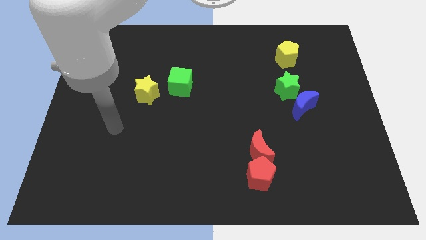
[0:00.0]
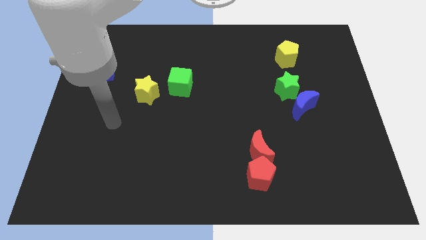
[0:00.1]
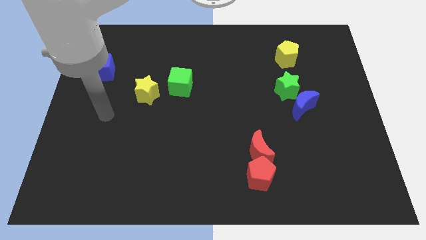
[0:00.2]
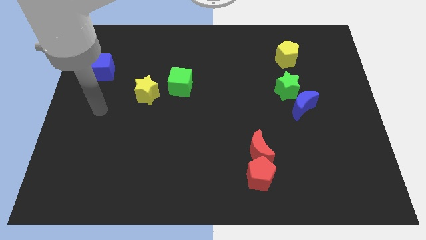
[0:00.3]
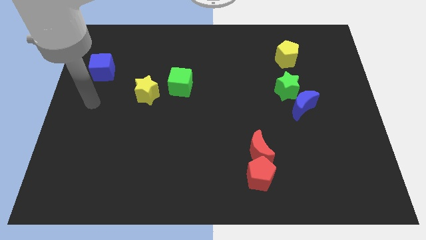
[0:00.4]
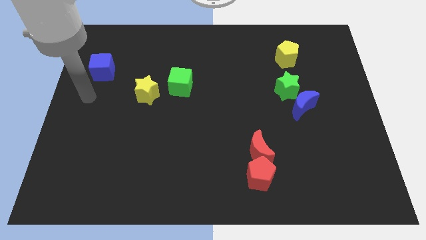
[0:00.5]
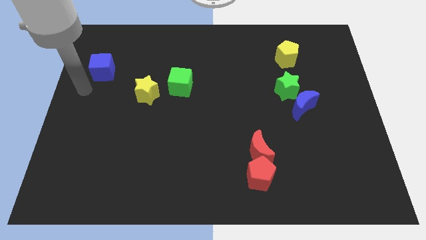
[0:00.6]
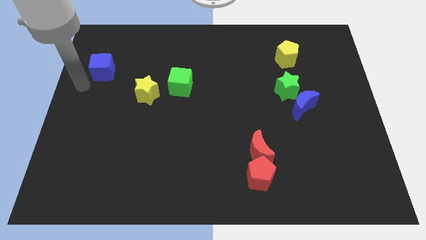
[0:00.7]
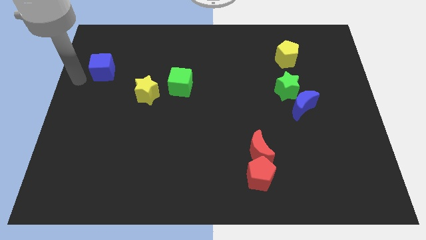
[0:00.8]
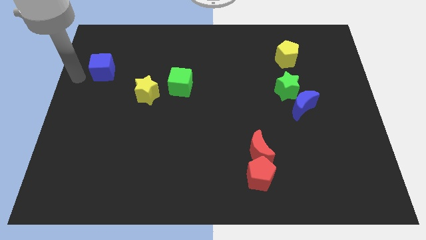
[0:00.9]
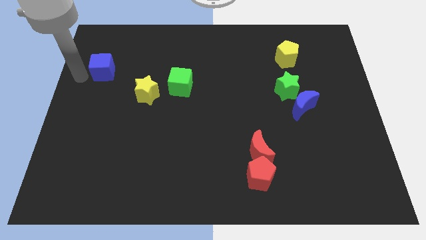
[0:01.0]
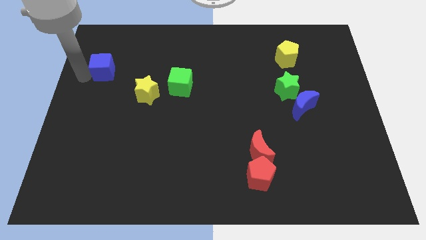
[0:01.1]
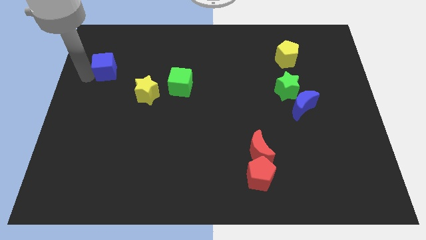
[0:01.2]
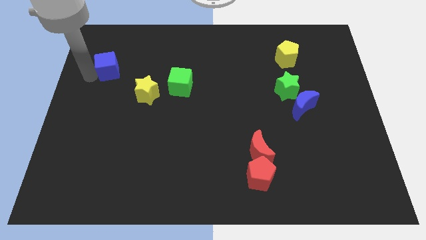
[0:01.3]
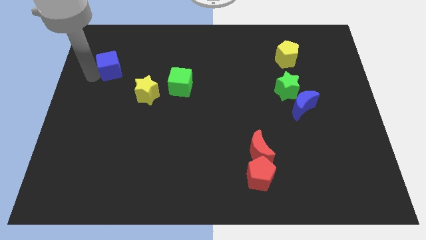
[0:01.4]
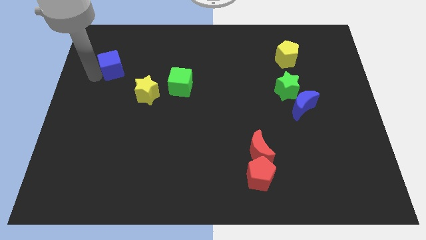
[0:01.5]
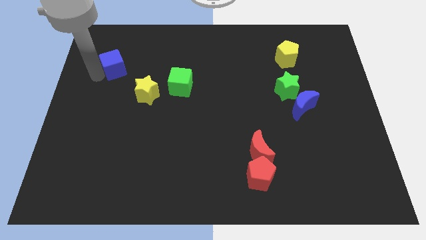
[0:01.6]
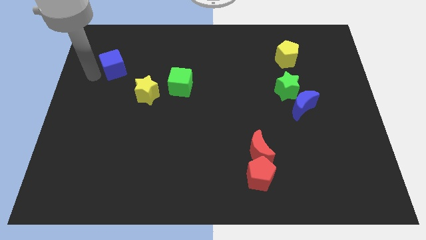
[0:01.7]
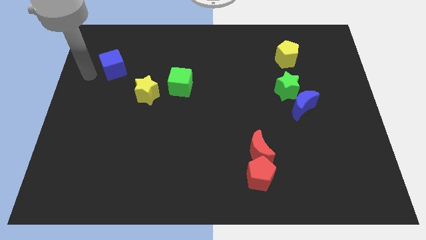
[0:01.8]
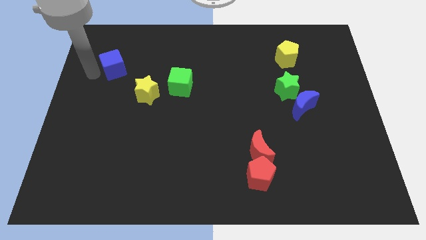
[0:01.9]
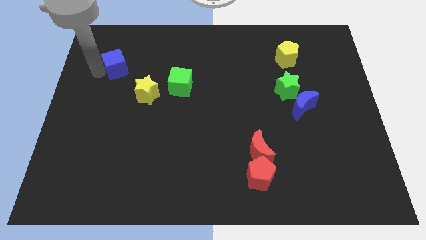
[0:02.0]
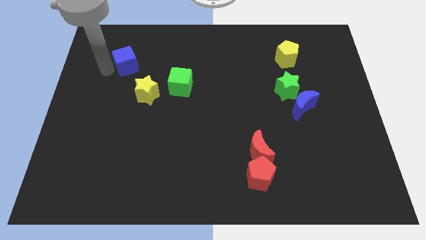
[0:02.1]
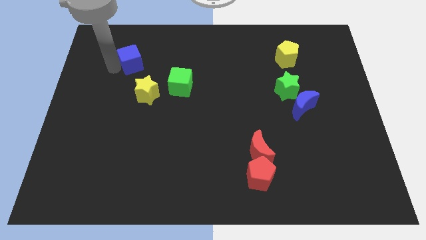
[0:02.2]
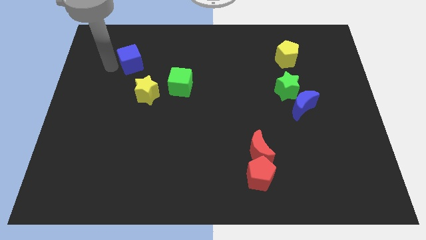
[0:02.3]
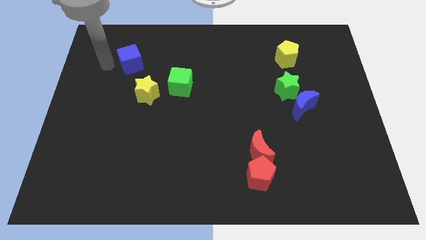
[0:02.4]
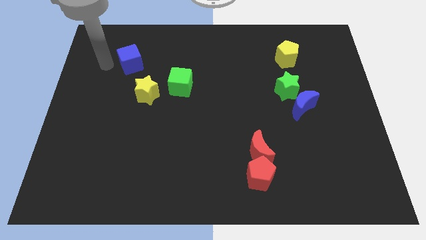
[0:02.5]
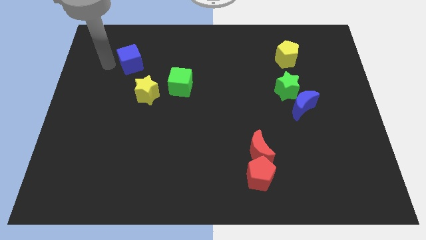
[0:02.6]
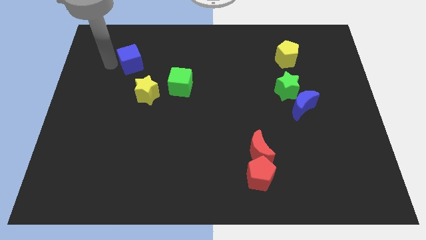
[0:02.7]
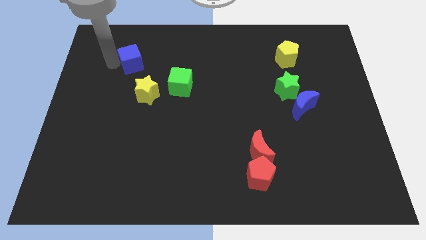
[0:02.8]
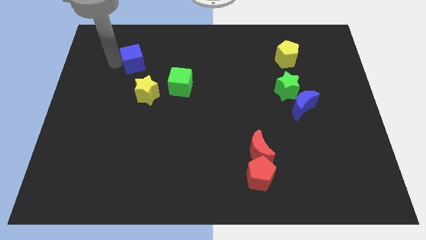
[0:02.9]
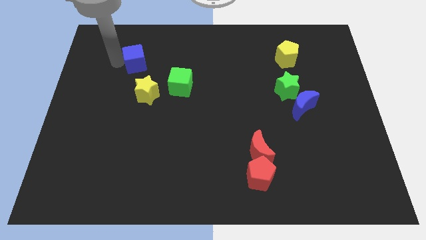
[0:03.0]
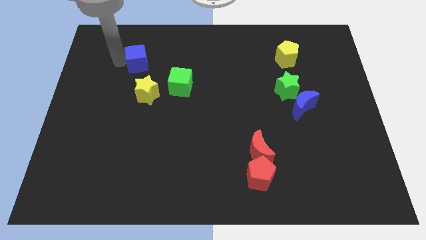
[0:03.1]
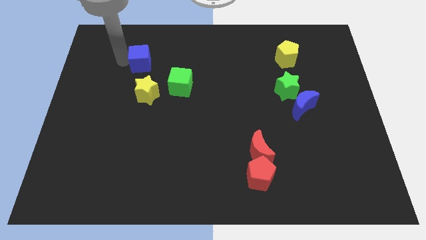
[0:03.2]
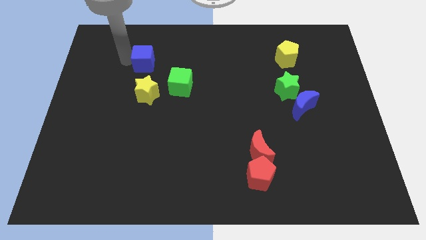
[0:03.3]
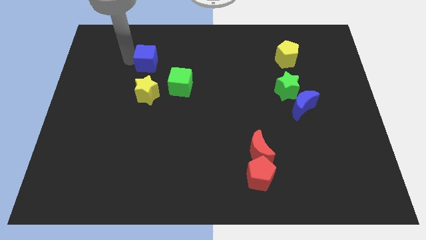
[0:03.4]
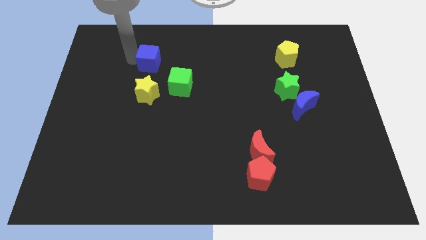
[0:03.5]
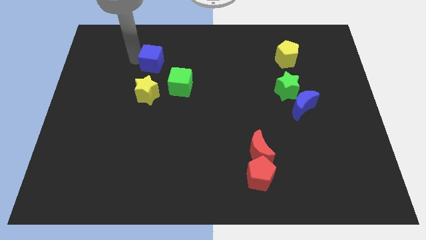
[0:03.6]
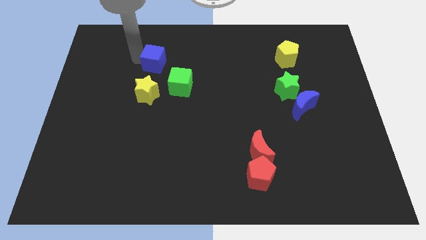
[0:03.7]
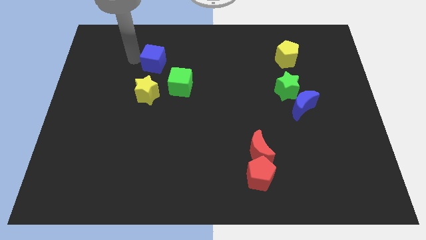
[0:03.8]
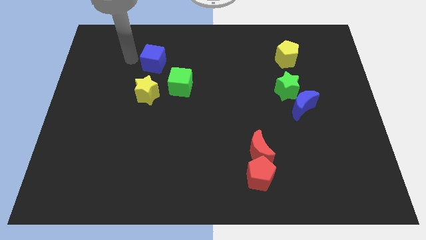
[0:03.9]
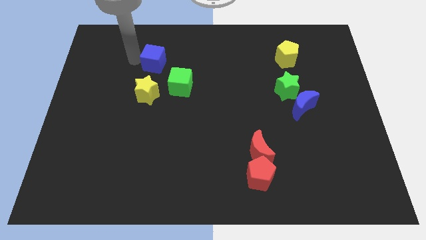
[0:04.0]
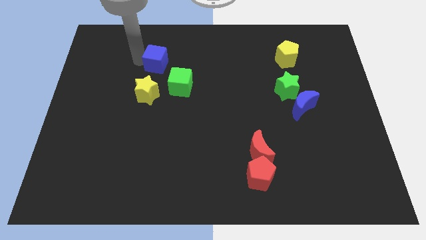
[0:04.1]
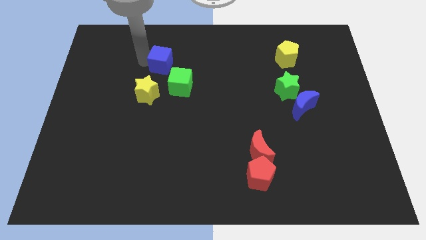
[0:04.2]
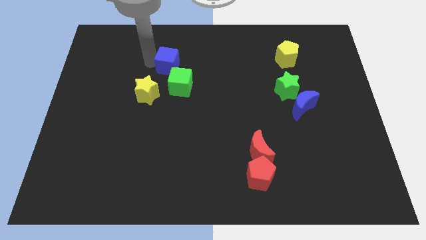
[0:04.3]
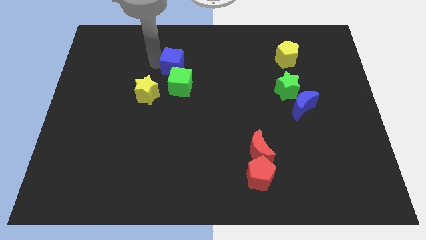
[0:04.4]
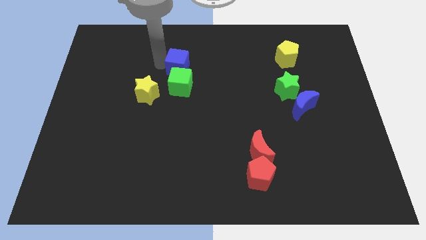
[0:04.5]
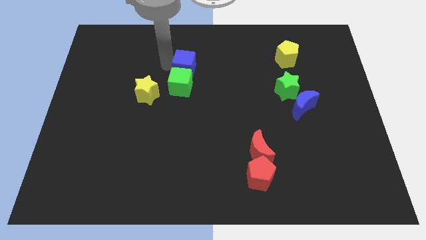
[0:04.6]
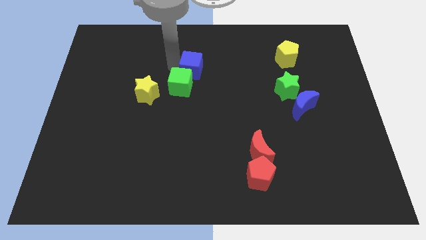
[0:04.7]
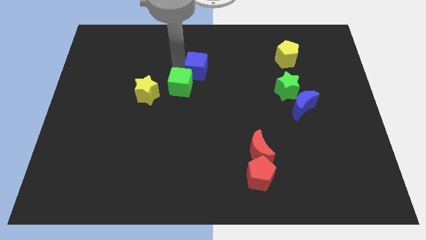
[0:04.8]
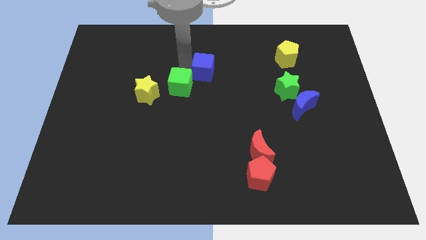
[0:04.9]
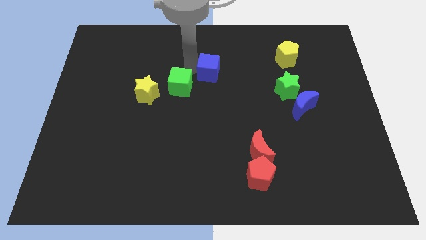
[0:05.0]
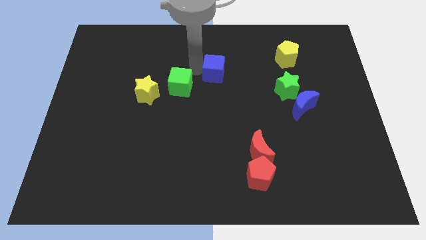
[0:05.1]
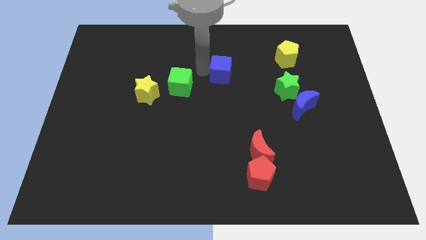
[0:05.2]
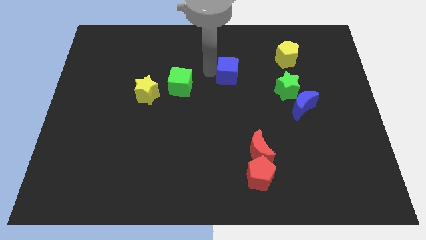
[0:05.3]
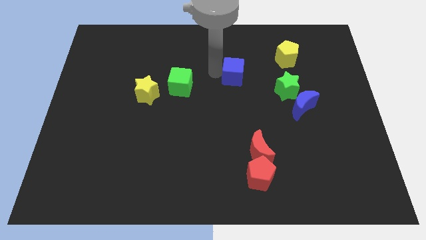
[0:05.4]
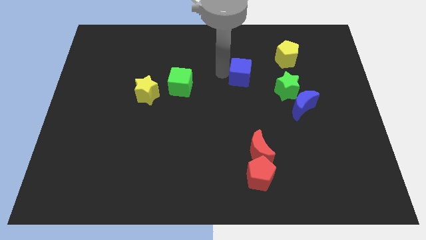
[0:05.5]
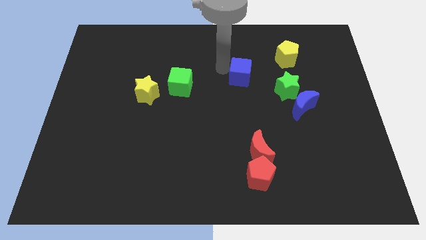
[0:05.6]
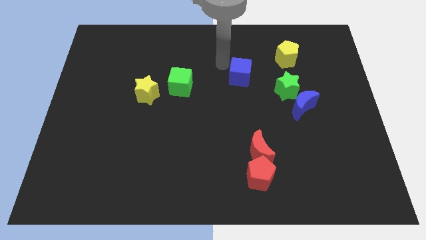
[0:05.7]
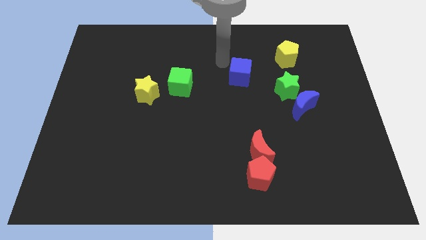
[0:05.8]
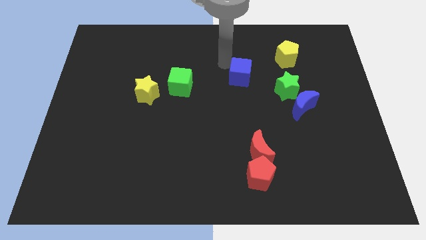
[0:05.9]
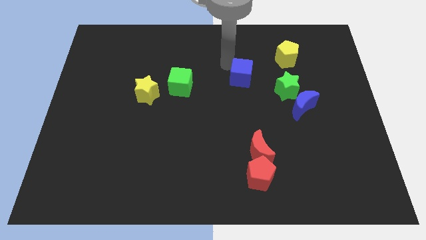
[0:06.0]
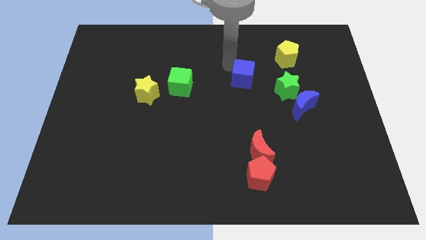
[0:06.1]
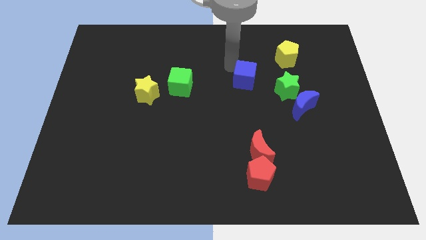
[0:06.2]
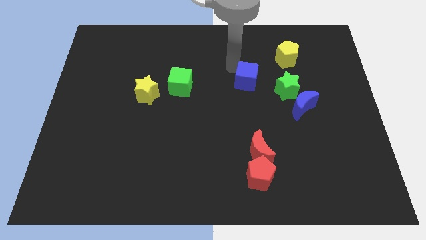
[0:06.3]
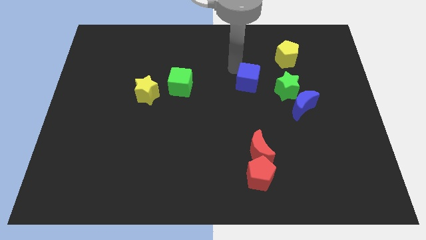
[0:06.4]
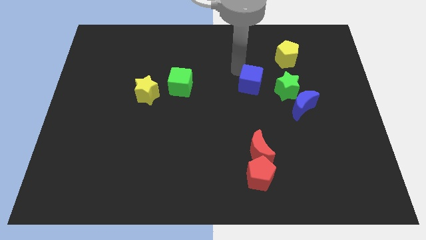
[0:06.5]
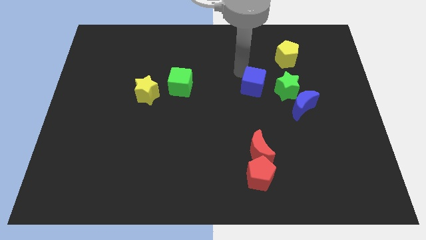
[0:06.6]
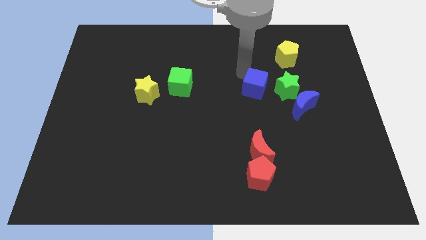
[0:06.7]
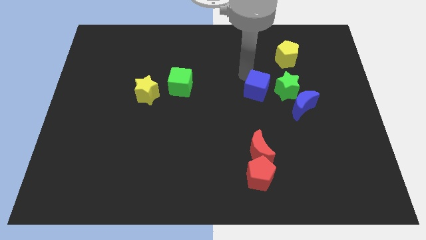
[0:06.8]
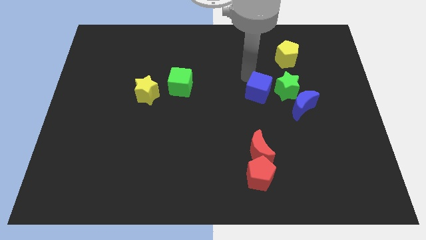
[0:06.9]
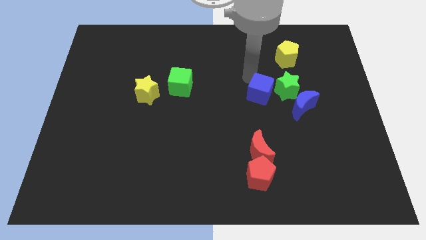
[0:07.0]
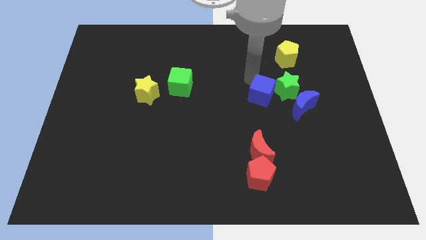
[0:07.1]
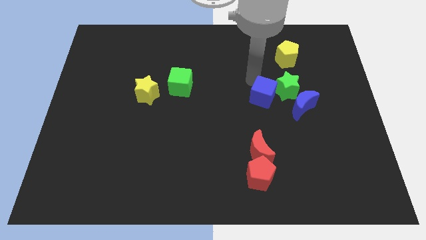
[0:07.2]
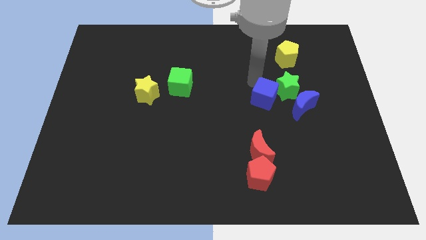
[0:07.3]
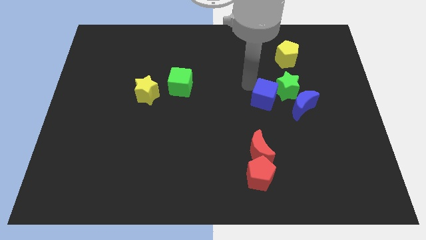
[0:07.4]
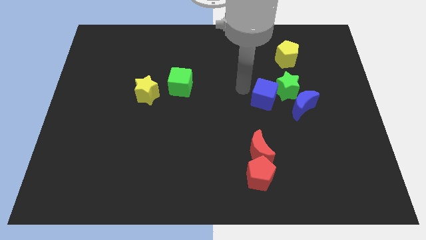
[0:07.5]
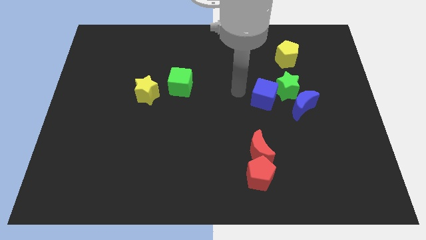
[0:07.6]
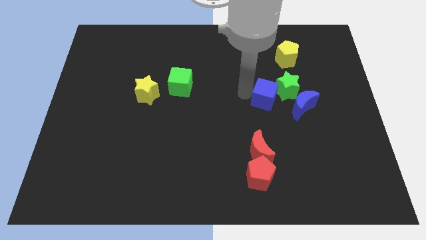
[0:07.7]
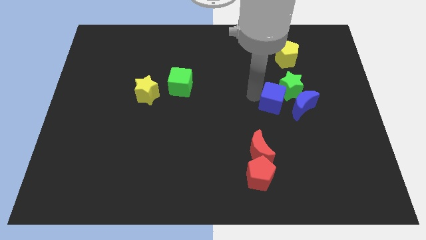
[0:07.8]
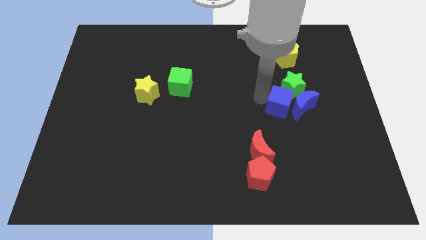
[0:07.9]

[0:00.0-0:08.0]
slide the blue cube towards the blue moon
